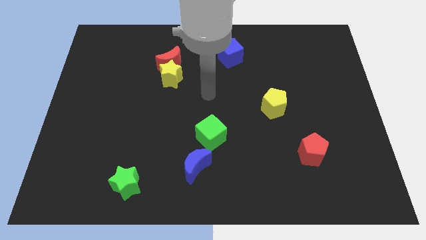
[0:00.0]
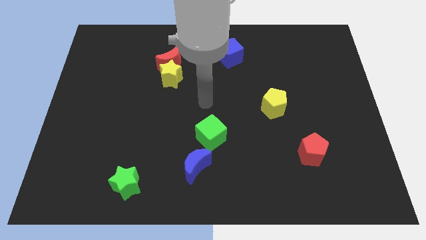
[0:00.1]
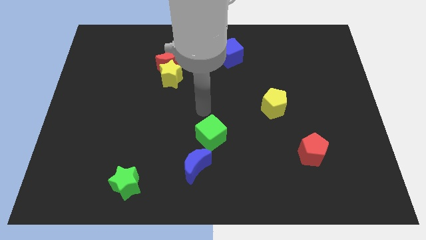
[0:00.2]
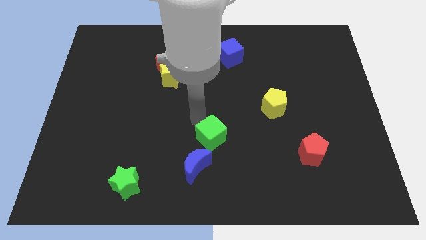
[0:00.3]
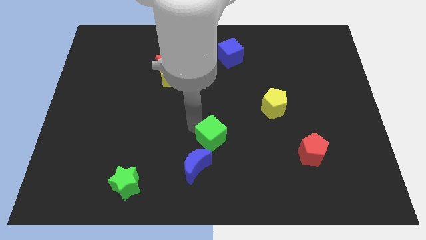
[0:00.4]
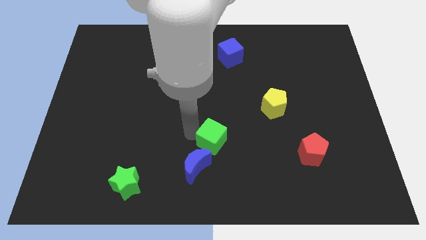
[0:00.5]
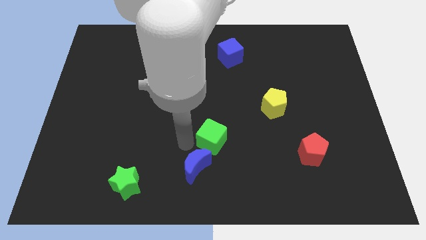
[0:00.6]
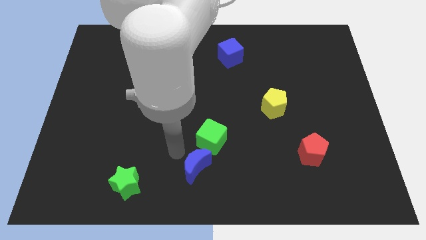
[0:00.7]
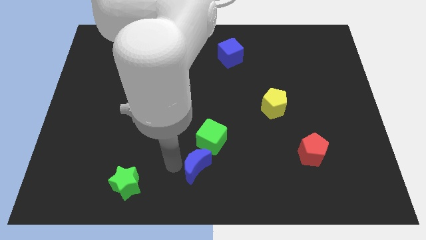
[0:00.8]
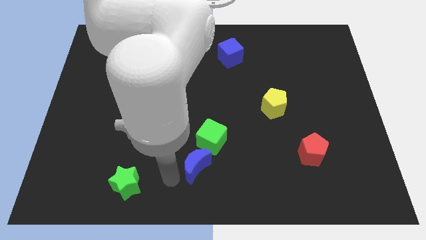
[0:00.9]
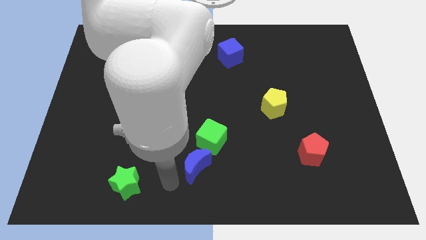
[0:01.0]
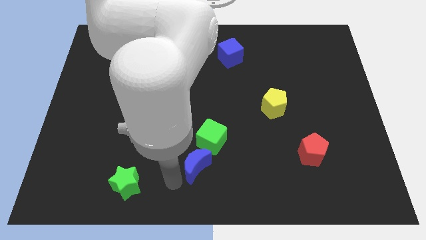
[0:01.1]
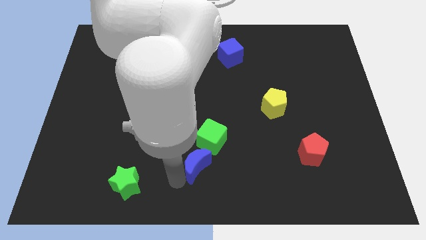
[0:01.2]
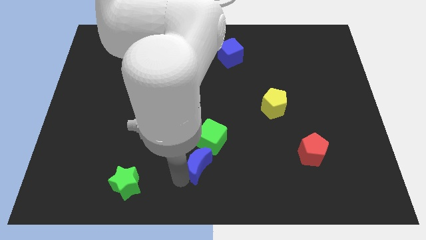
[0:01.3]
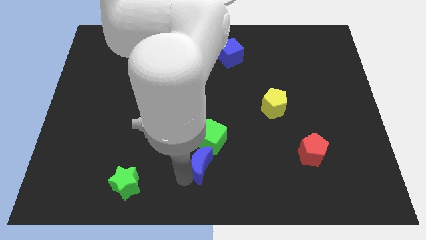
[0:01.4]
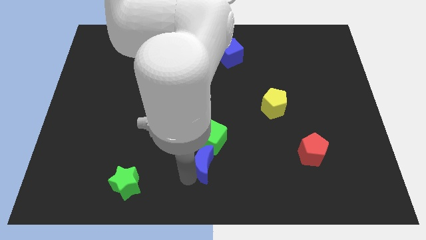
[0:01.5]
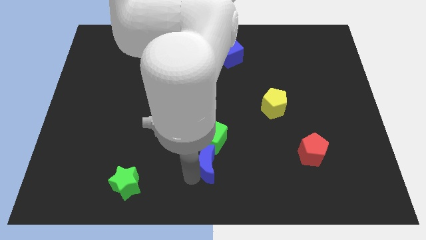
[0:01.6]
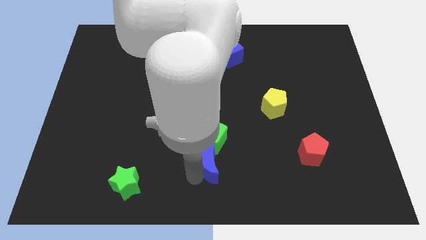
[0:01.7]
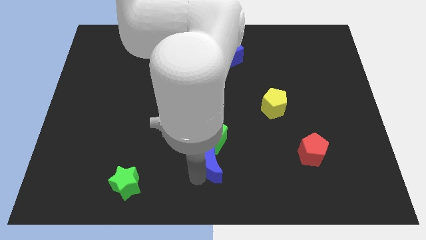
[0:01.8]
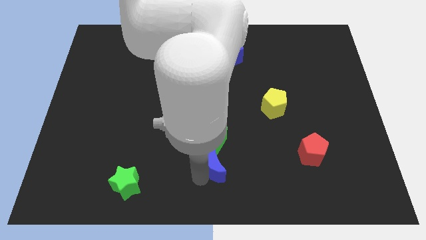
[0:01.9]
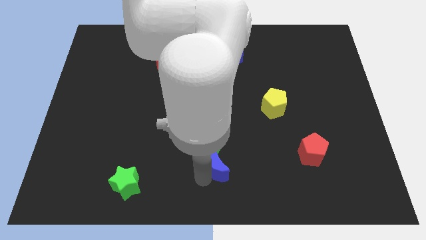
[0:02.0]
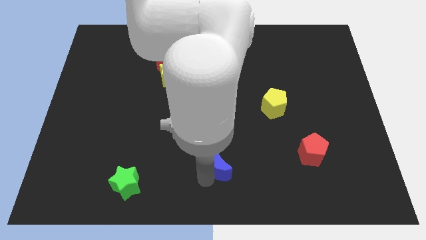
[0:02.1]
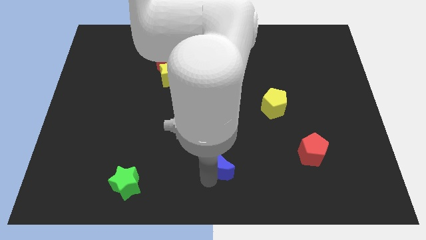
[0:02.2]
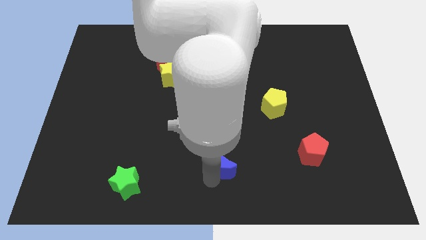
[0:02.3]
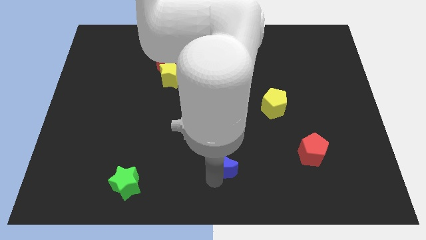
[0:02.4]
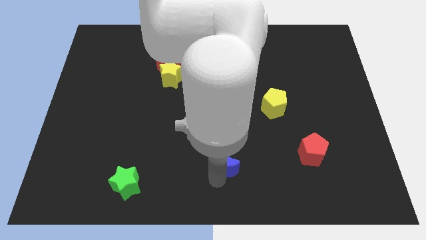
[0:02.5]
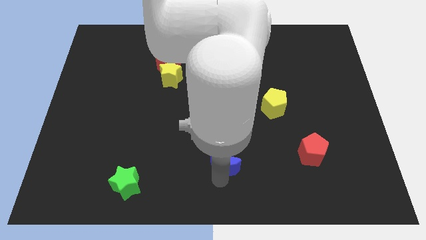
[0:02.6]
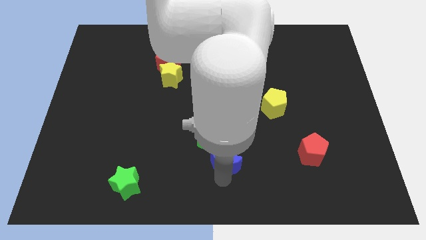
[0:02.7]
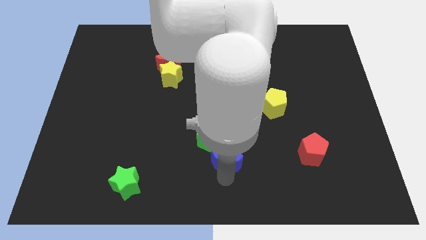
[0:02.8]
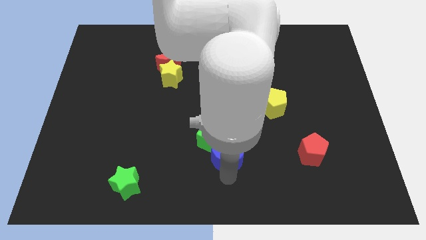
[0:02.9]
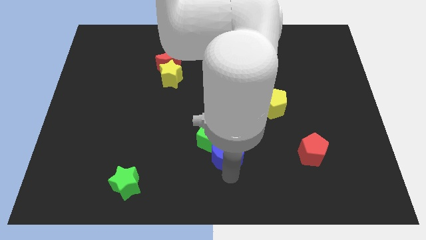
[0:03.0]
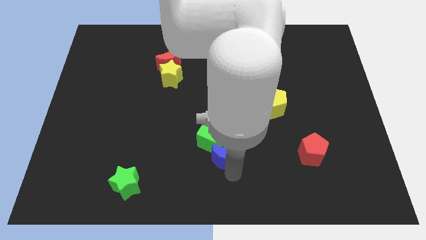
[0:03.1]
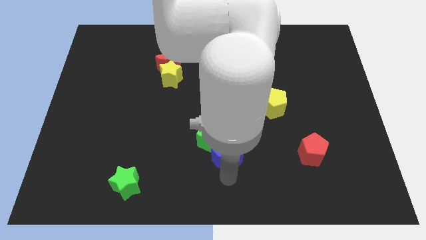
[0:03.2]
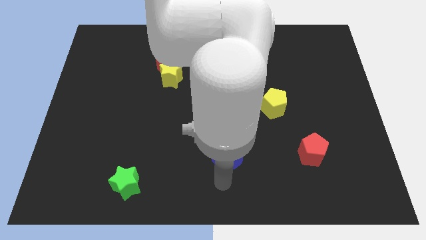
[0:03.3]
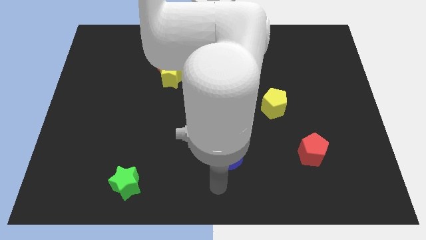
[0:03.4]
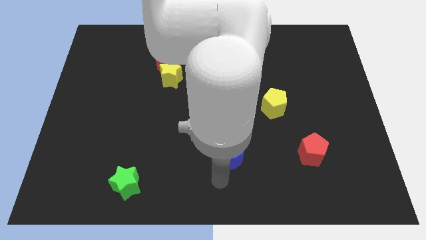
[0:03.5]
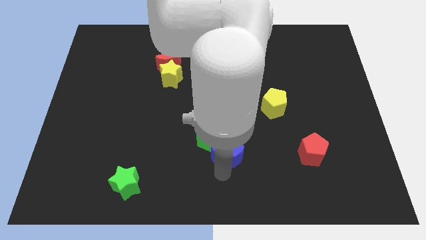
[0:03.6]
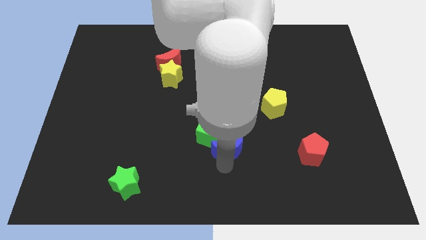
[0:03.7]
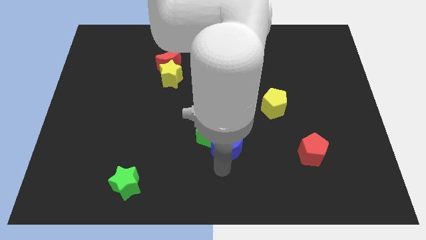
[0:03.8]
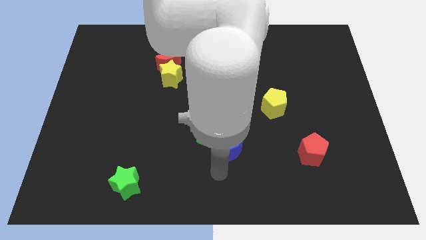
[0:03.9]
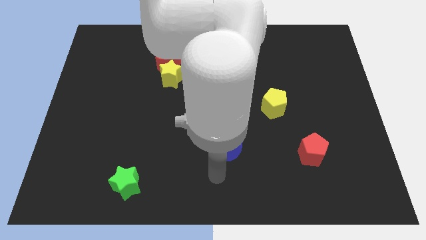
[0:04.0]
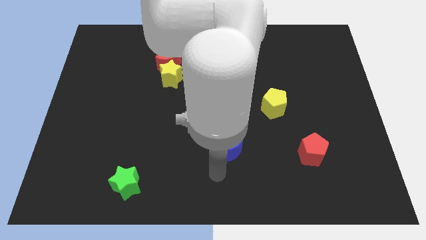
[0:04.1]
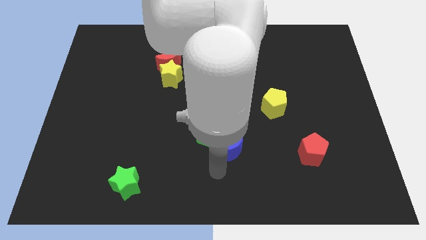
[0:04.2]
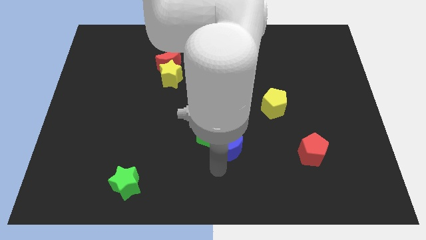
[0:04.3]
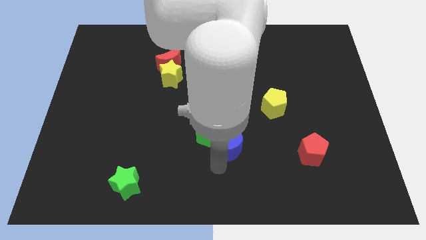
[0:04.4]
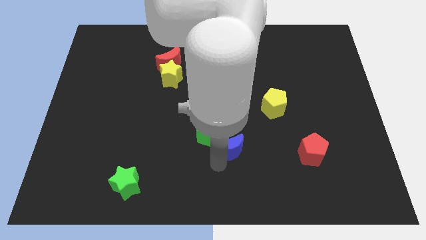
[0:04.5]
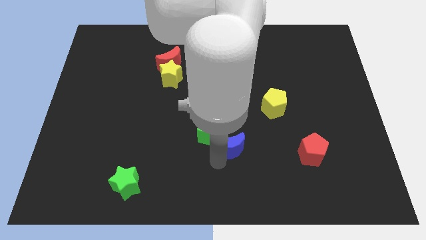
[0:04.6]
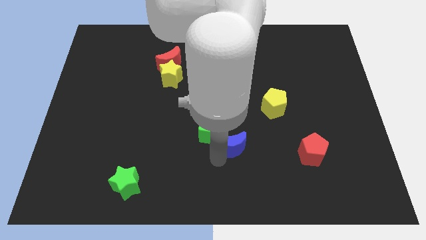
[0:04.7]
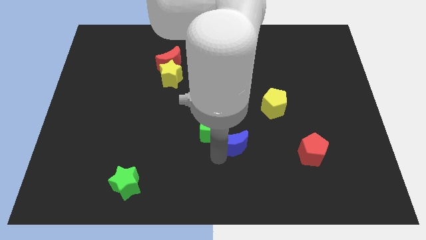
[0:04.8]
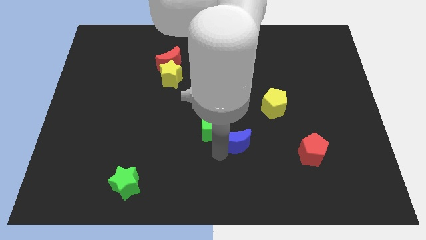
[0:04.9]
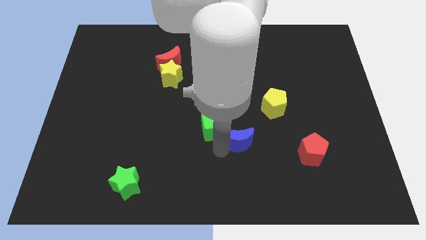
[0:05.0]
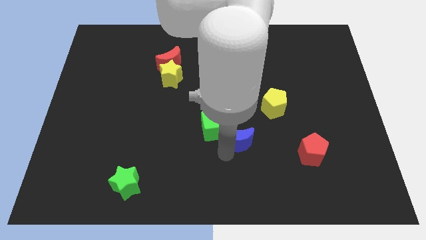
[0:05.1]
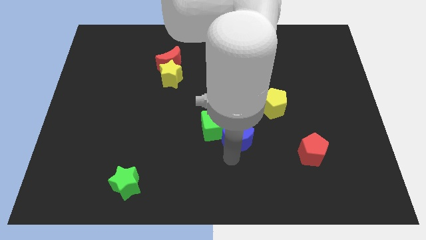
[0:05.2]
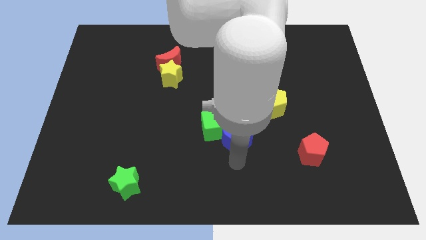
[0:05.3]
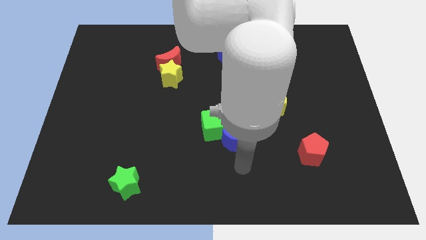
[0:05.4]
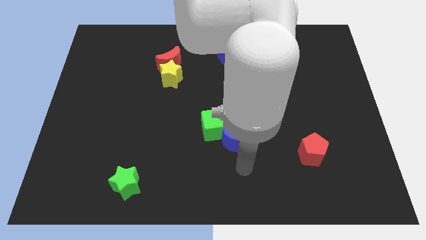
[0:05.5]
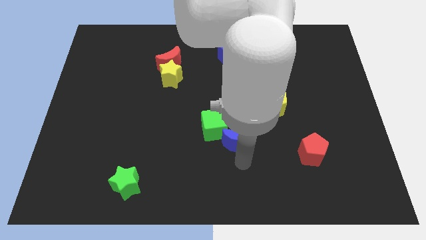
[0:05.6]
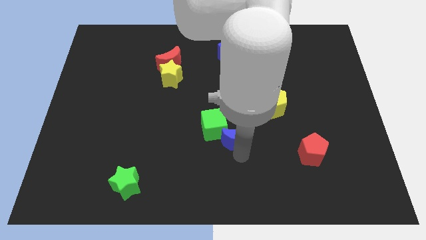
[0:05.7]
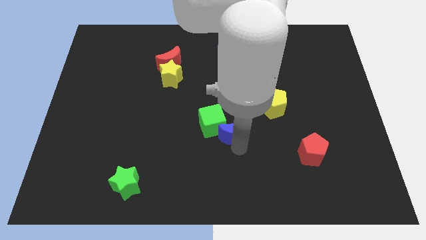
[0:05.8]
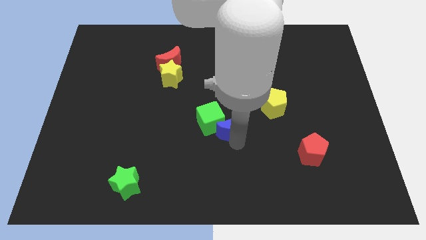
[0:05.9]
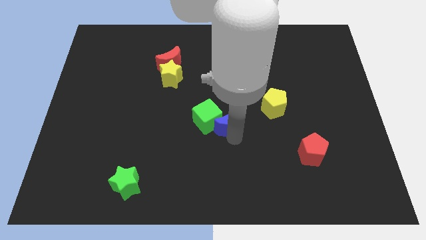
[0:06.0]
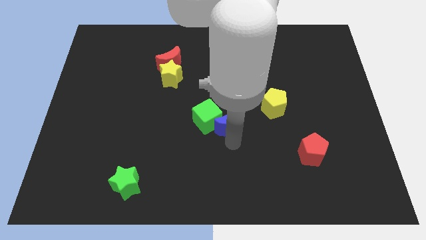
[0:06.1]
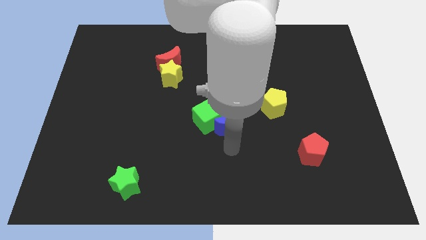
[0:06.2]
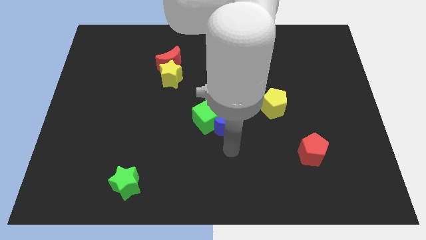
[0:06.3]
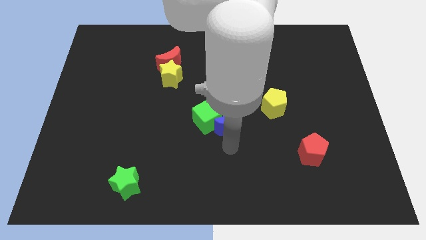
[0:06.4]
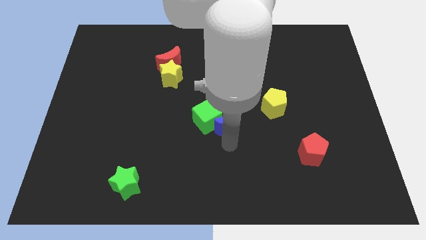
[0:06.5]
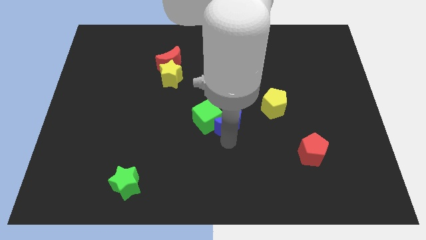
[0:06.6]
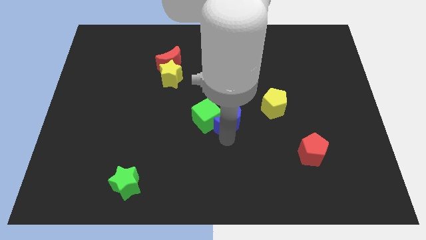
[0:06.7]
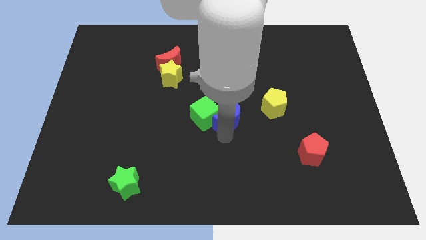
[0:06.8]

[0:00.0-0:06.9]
push the blue moon to the left side of the yellow pentagon
